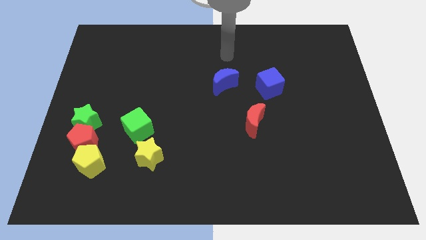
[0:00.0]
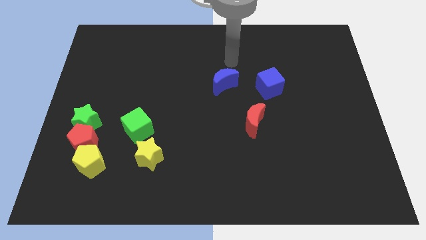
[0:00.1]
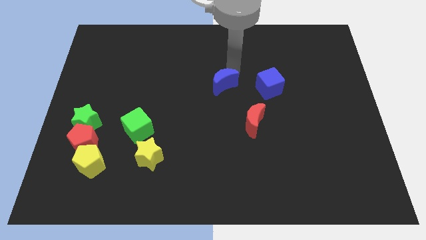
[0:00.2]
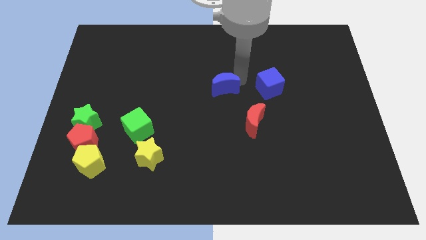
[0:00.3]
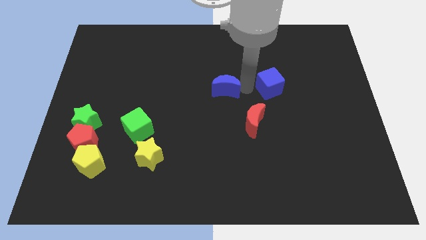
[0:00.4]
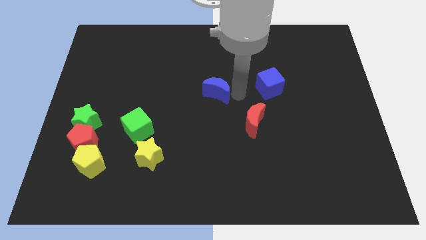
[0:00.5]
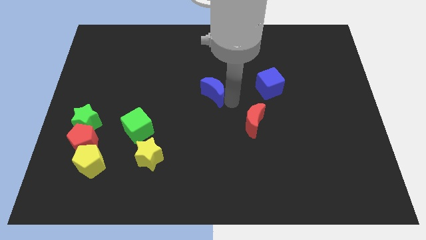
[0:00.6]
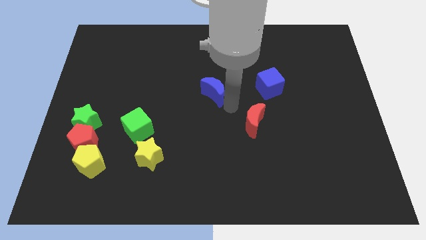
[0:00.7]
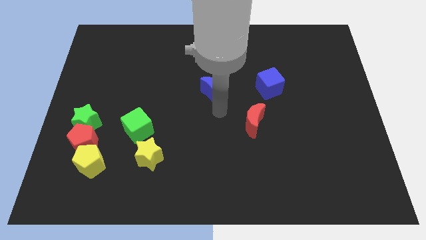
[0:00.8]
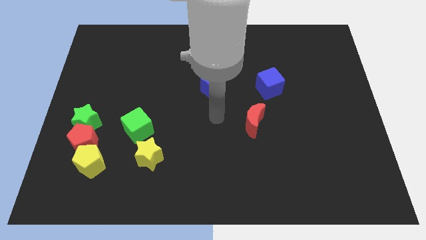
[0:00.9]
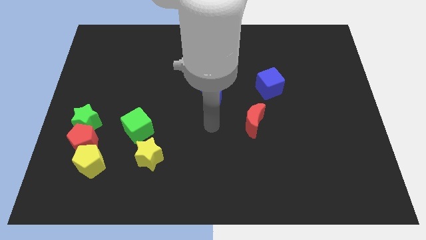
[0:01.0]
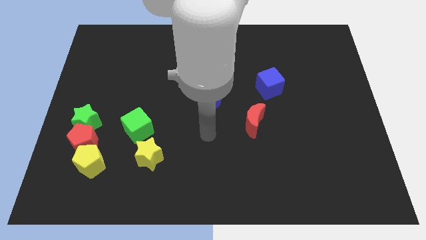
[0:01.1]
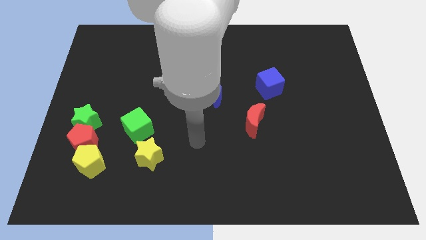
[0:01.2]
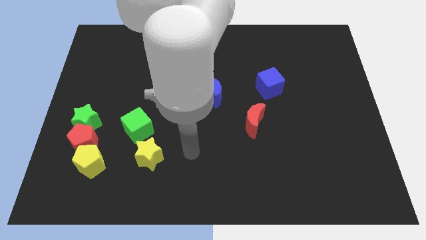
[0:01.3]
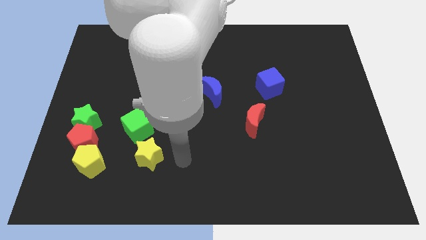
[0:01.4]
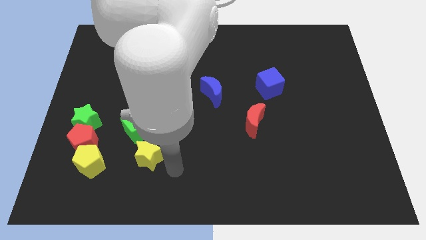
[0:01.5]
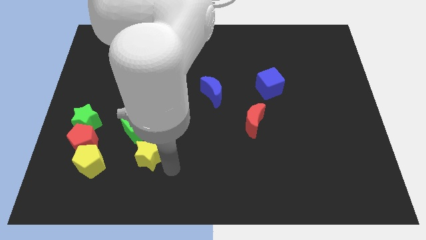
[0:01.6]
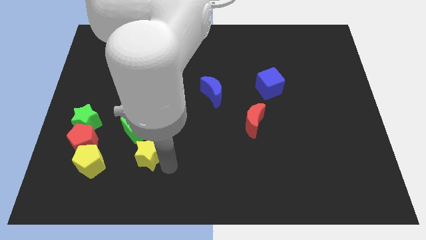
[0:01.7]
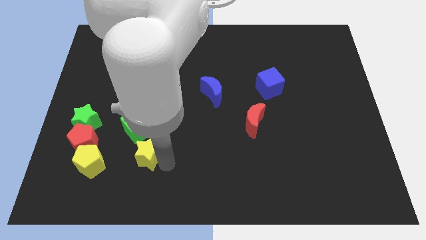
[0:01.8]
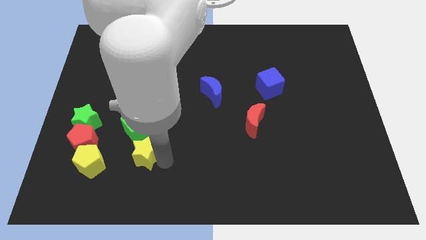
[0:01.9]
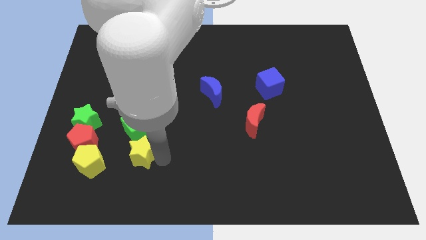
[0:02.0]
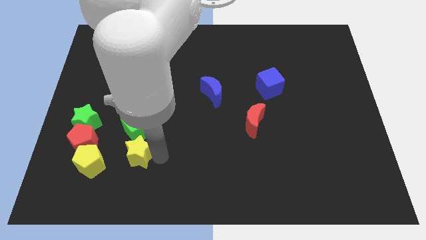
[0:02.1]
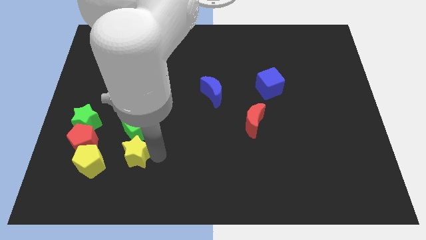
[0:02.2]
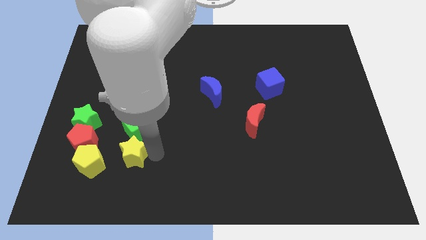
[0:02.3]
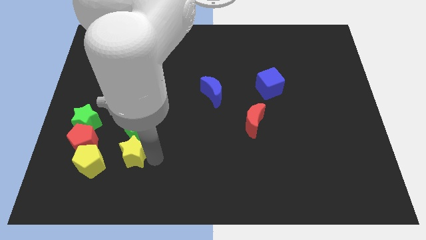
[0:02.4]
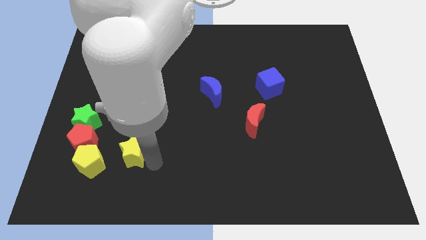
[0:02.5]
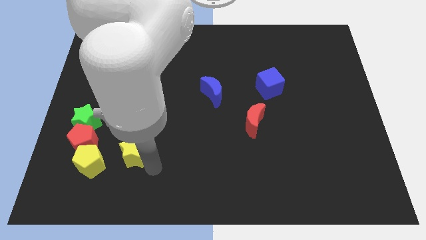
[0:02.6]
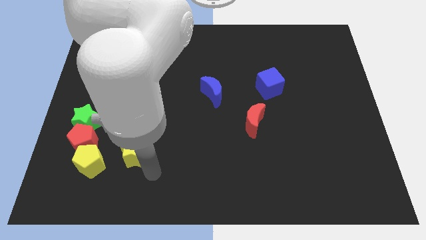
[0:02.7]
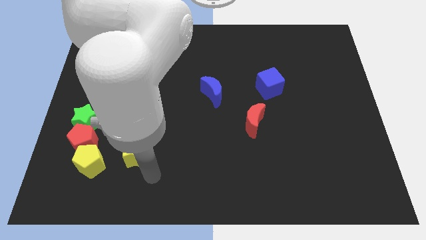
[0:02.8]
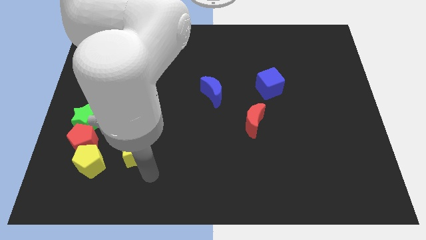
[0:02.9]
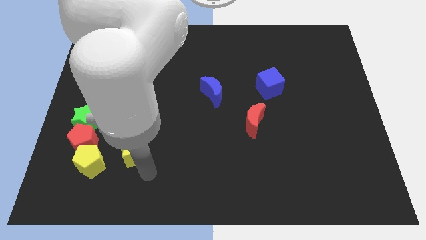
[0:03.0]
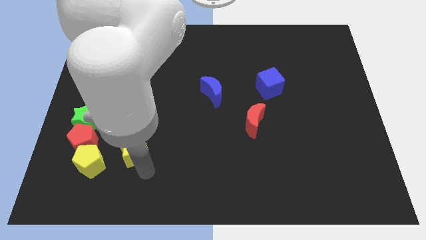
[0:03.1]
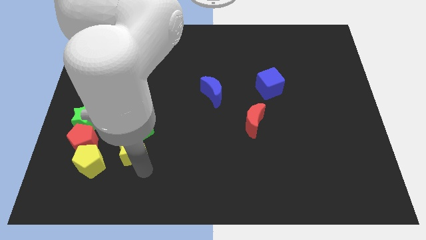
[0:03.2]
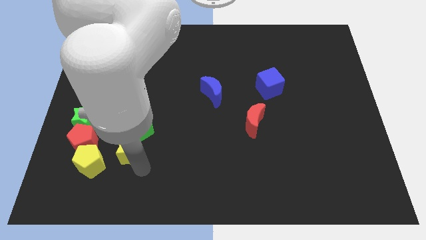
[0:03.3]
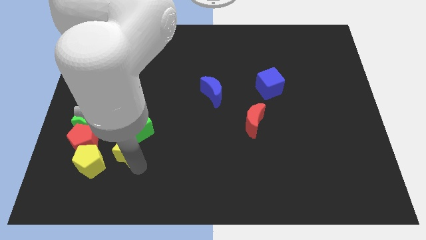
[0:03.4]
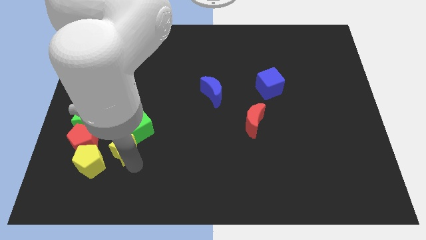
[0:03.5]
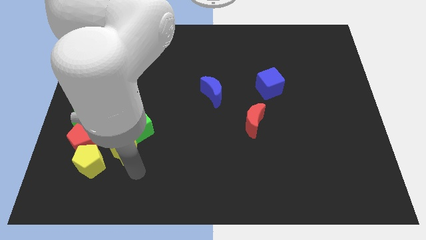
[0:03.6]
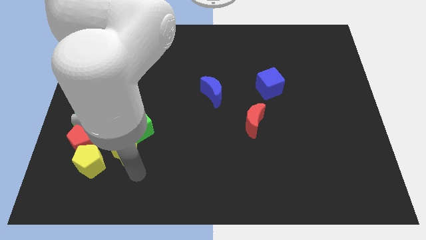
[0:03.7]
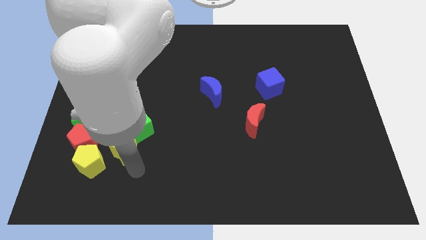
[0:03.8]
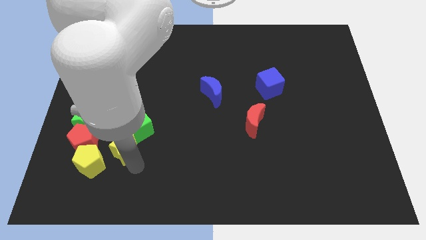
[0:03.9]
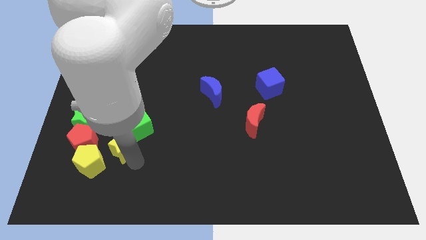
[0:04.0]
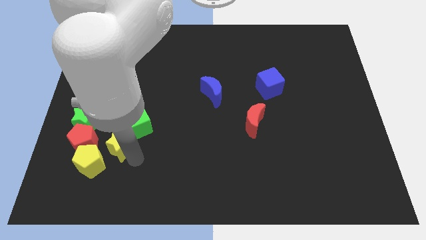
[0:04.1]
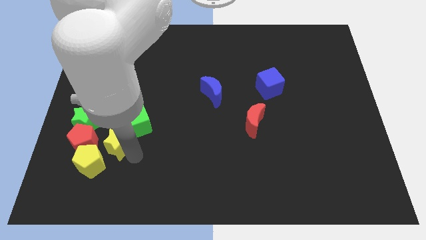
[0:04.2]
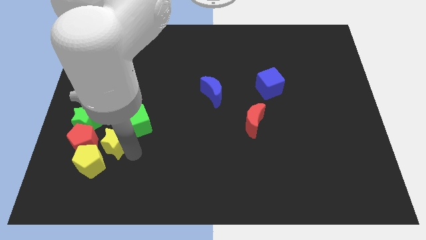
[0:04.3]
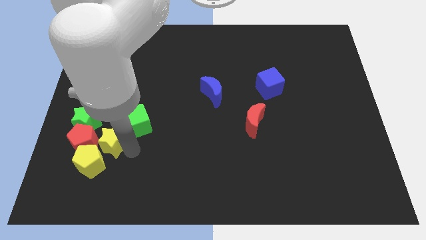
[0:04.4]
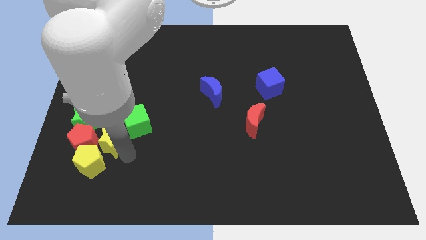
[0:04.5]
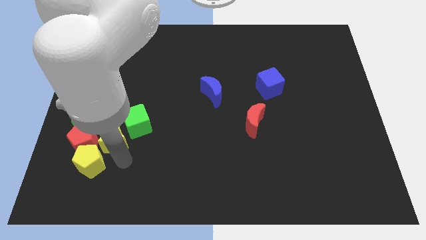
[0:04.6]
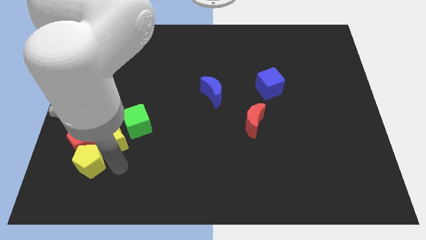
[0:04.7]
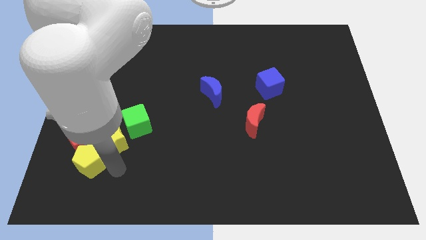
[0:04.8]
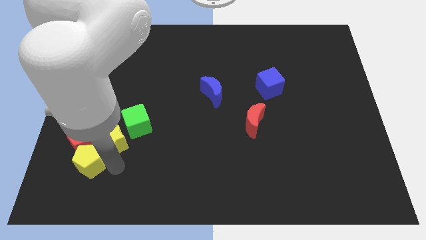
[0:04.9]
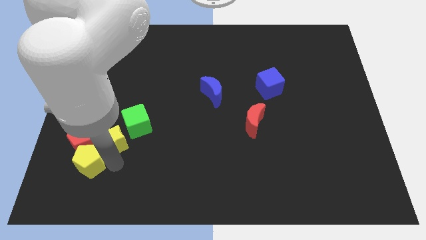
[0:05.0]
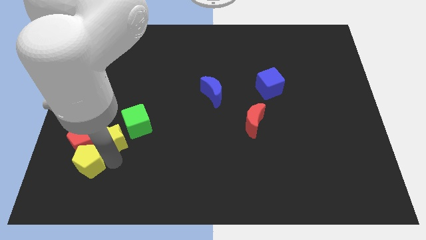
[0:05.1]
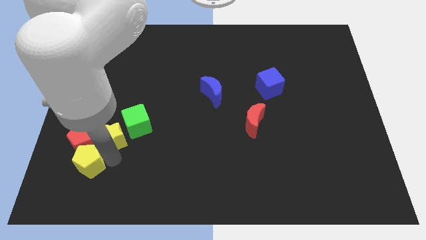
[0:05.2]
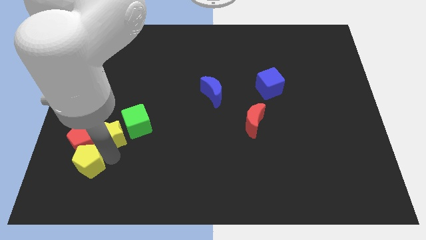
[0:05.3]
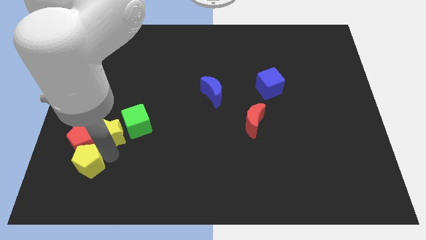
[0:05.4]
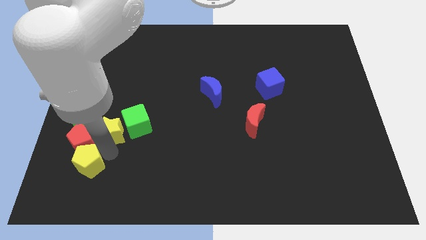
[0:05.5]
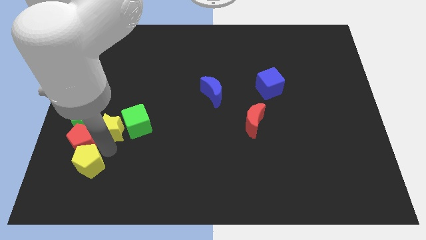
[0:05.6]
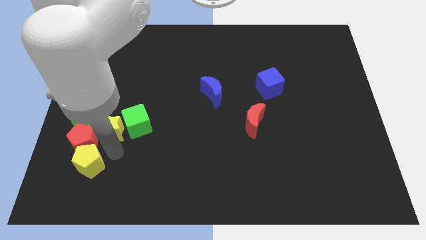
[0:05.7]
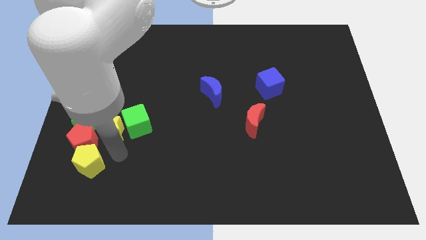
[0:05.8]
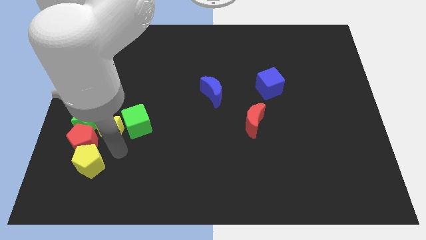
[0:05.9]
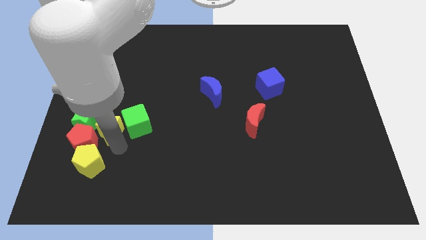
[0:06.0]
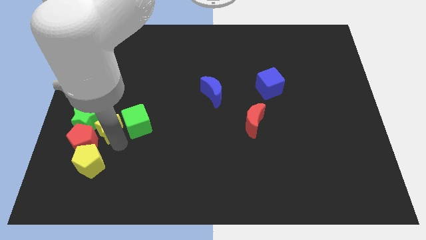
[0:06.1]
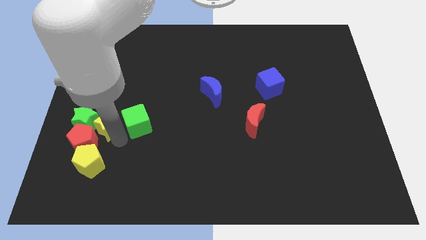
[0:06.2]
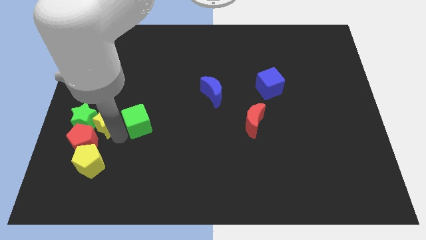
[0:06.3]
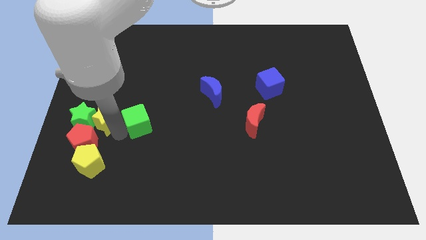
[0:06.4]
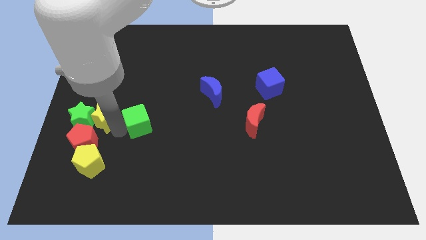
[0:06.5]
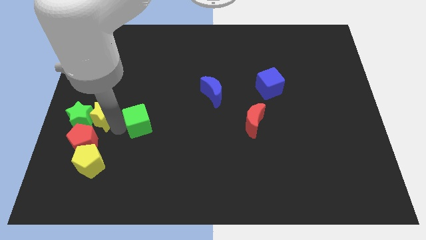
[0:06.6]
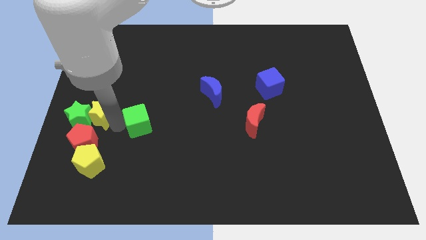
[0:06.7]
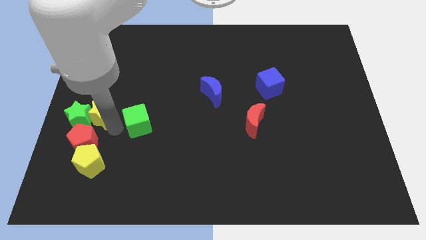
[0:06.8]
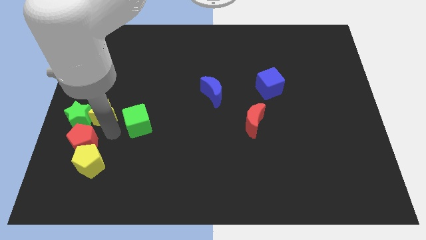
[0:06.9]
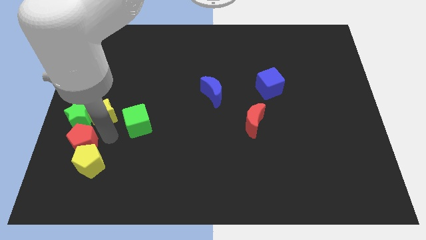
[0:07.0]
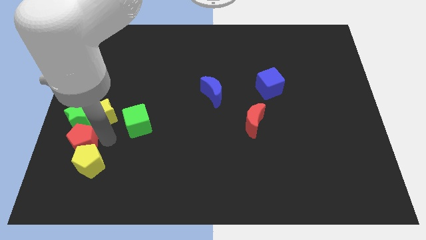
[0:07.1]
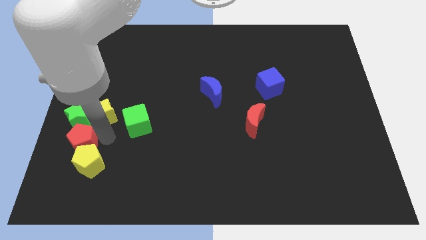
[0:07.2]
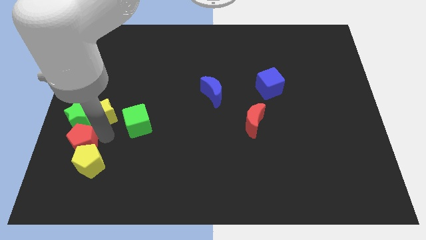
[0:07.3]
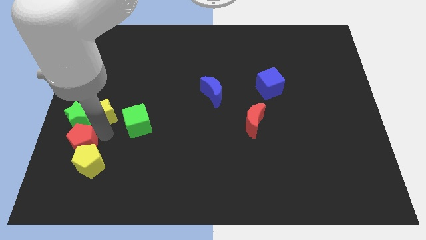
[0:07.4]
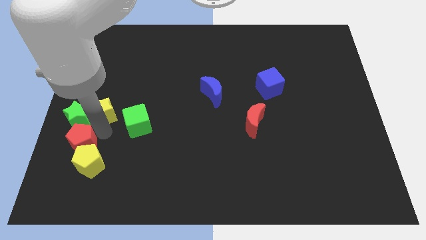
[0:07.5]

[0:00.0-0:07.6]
move the yellow star to the center left
